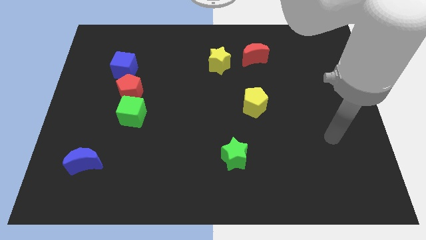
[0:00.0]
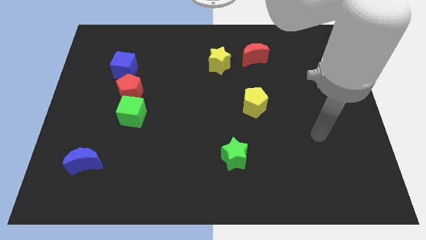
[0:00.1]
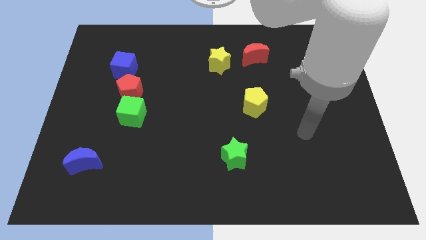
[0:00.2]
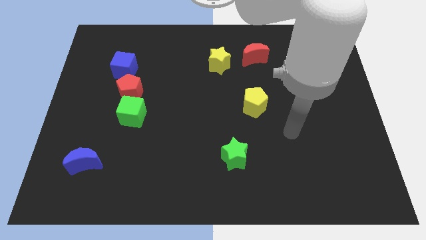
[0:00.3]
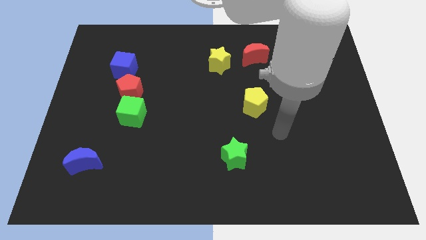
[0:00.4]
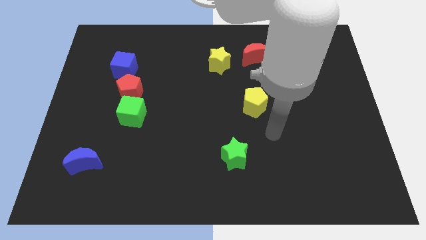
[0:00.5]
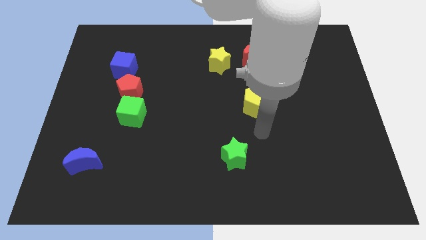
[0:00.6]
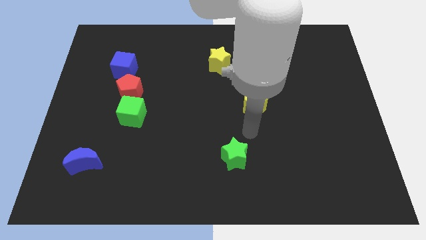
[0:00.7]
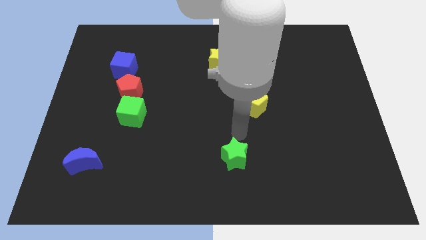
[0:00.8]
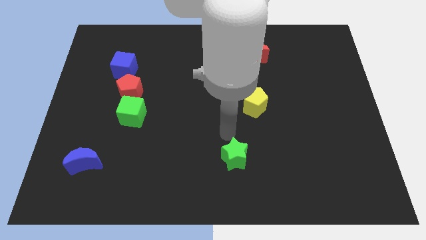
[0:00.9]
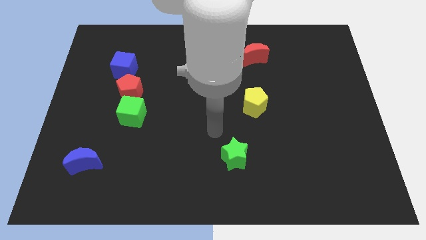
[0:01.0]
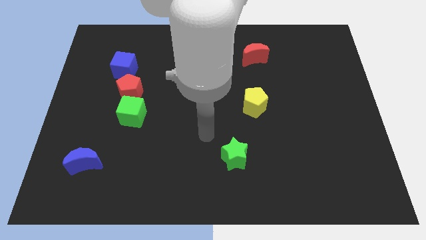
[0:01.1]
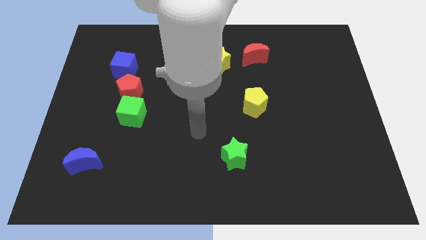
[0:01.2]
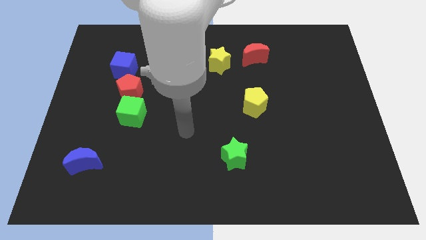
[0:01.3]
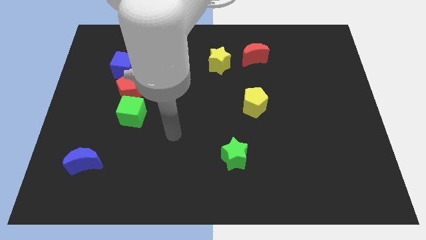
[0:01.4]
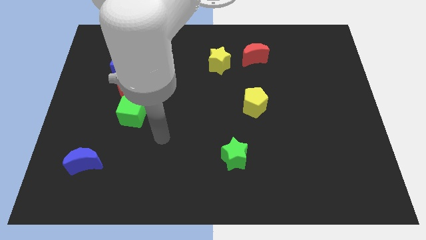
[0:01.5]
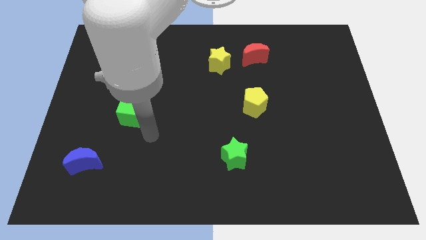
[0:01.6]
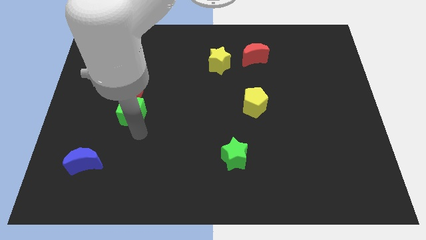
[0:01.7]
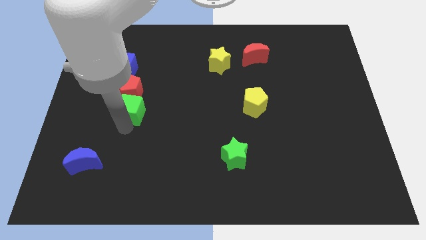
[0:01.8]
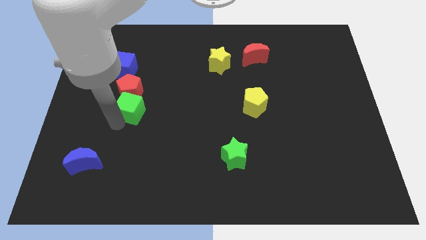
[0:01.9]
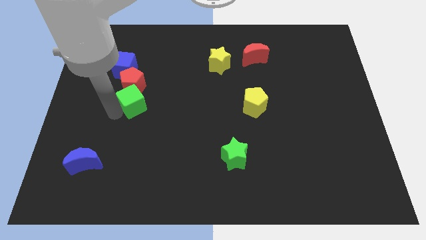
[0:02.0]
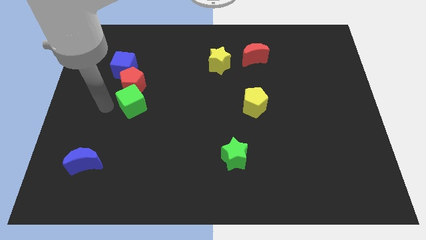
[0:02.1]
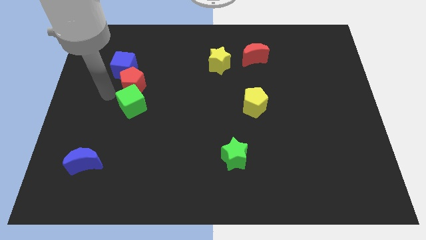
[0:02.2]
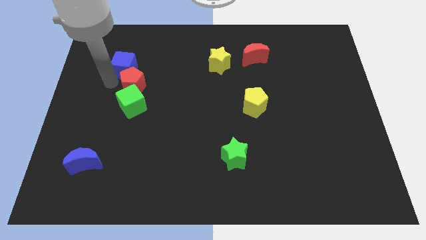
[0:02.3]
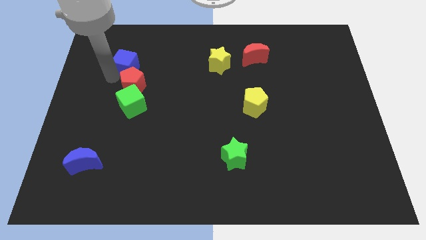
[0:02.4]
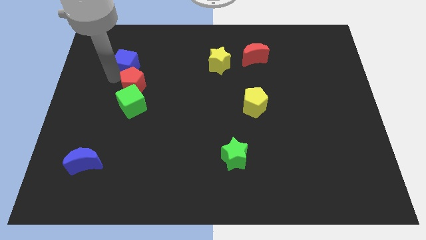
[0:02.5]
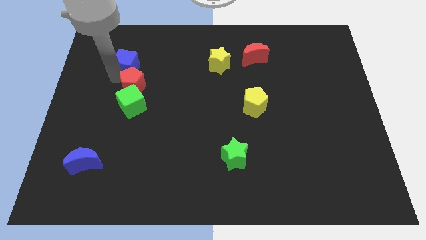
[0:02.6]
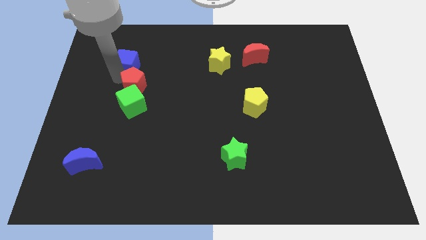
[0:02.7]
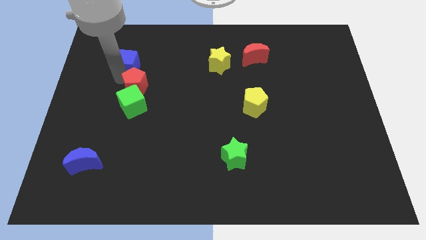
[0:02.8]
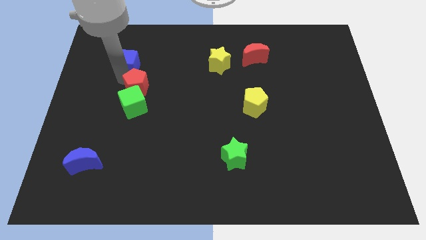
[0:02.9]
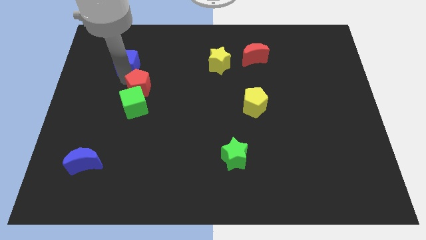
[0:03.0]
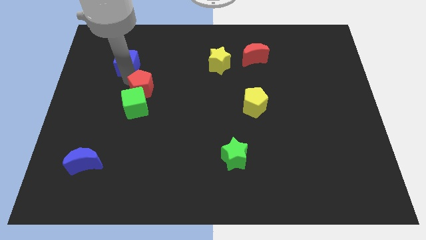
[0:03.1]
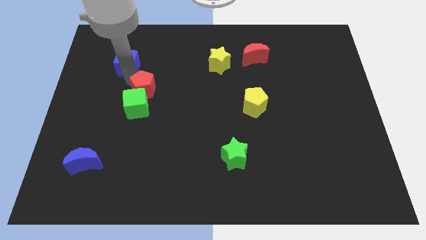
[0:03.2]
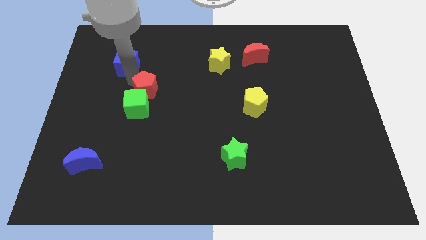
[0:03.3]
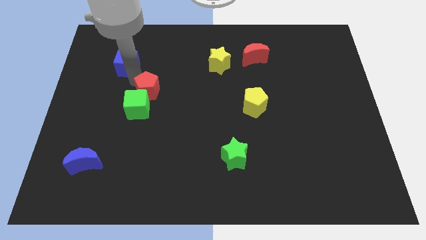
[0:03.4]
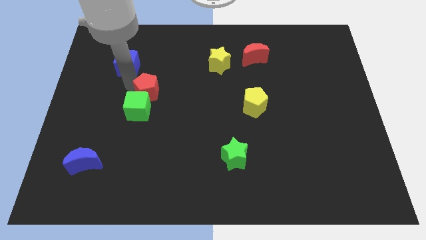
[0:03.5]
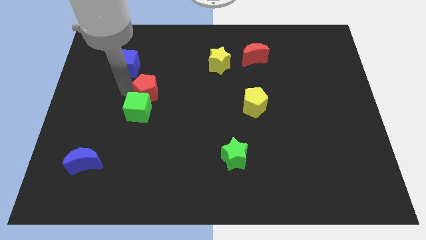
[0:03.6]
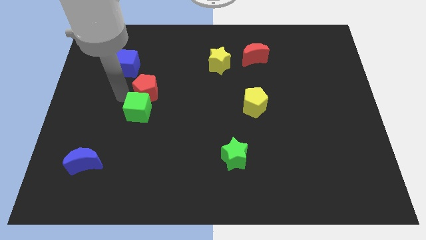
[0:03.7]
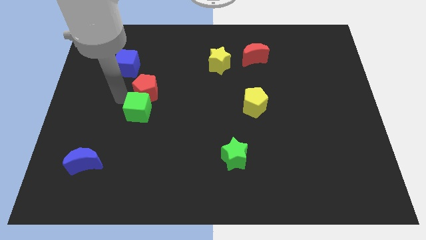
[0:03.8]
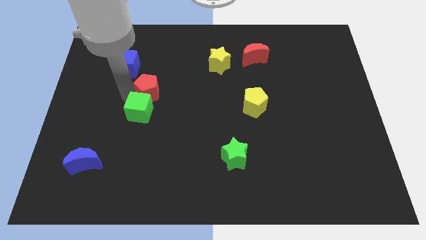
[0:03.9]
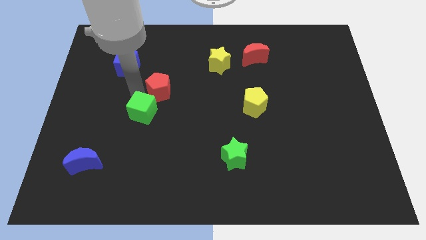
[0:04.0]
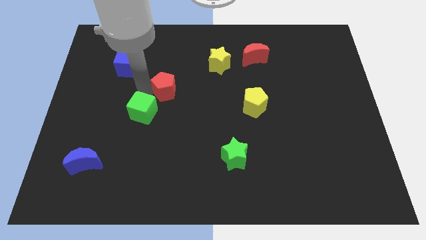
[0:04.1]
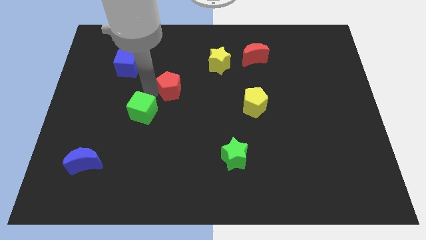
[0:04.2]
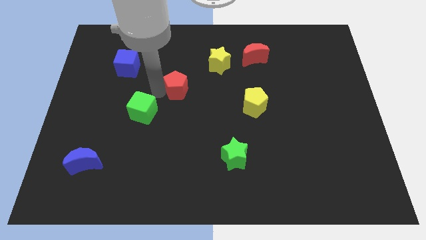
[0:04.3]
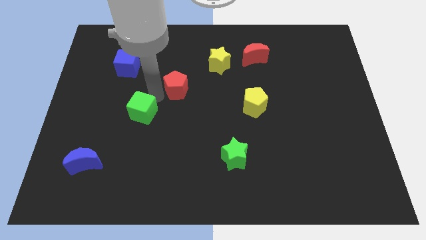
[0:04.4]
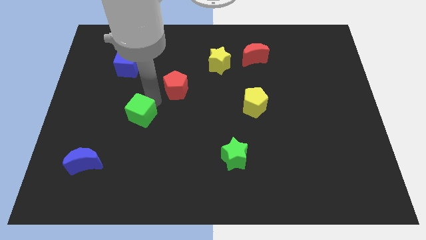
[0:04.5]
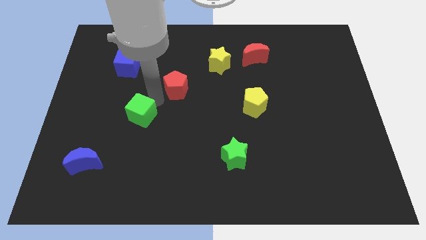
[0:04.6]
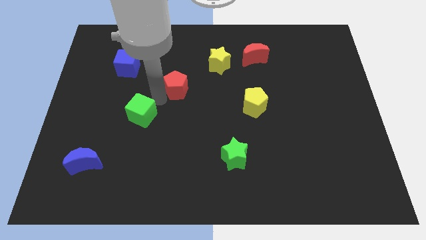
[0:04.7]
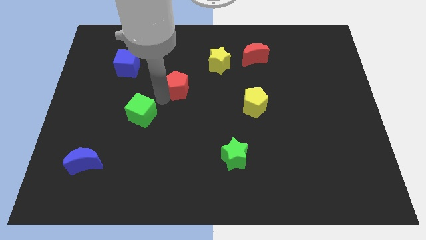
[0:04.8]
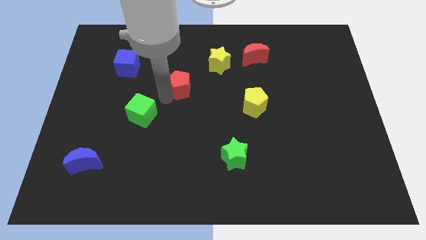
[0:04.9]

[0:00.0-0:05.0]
put the red pentagon to the bottom left of the yellow star

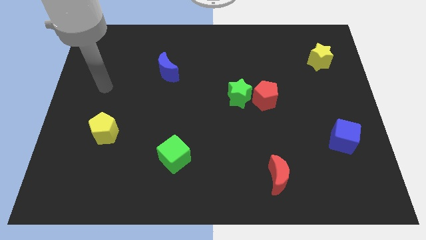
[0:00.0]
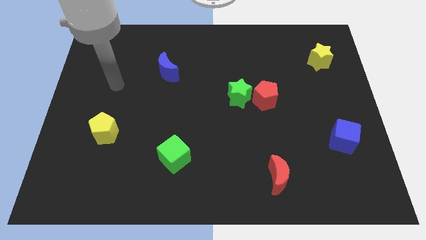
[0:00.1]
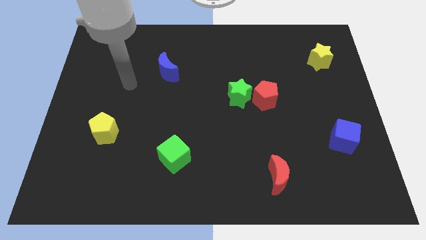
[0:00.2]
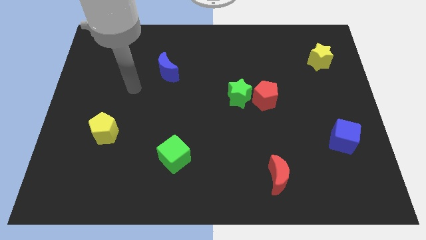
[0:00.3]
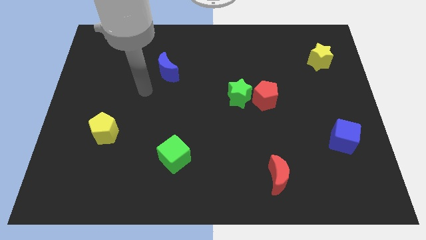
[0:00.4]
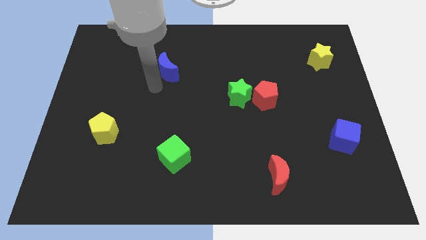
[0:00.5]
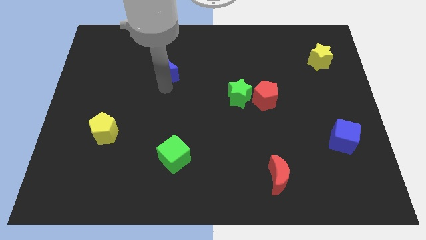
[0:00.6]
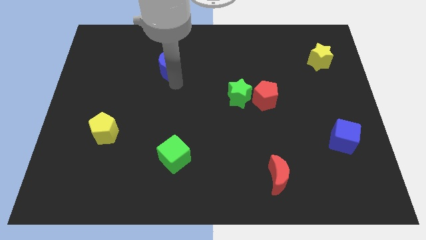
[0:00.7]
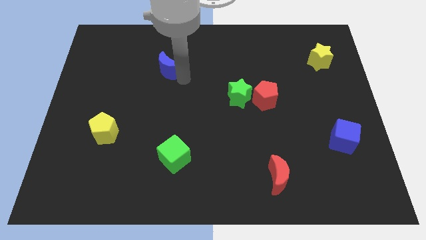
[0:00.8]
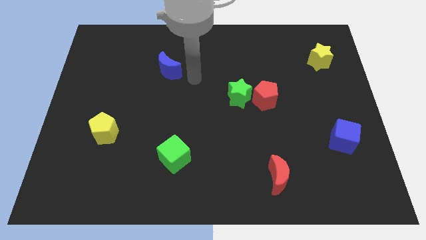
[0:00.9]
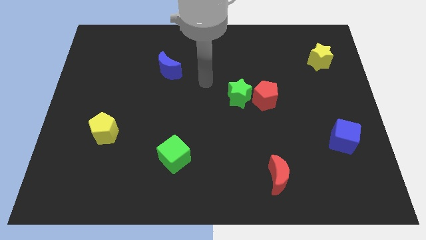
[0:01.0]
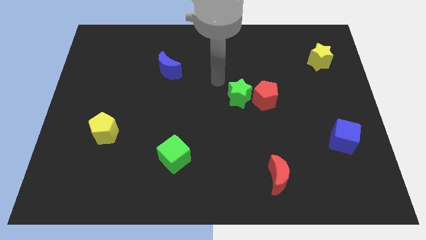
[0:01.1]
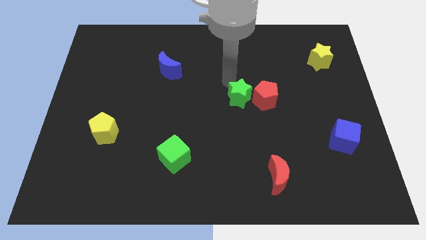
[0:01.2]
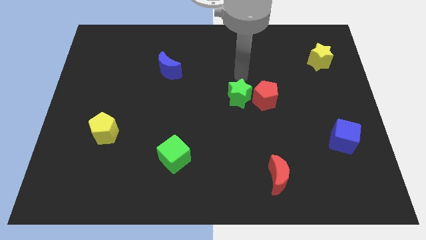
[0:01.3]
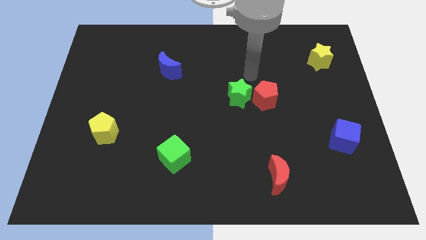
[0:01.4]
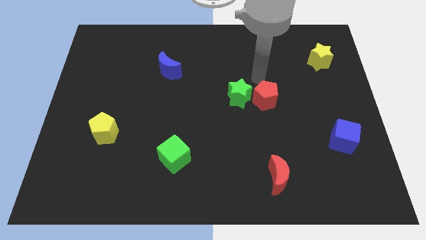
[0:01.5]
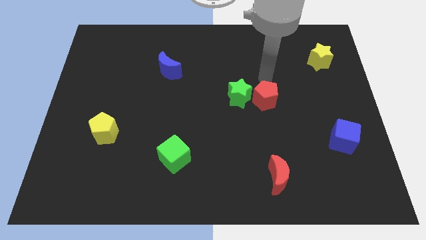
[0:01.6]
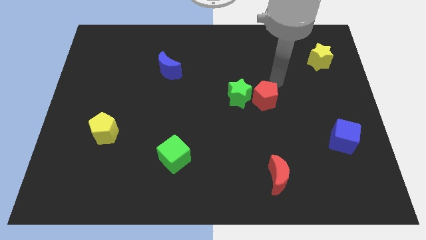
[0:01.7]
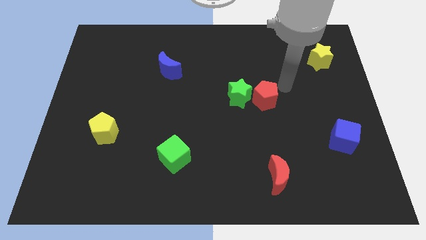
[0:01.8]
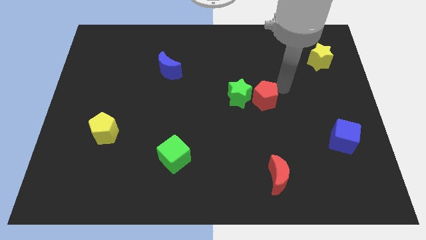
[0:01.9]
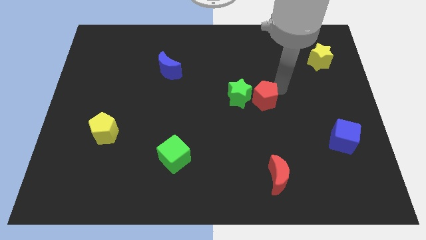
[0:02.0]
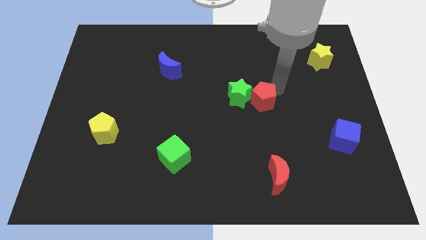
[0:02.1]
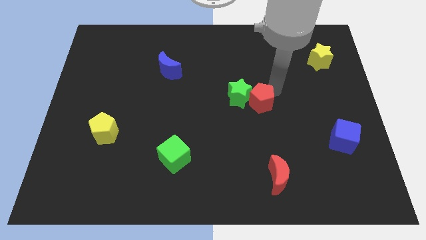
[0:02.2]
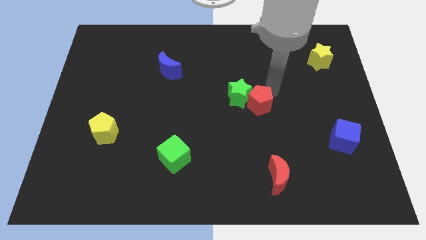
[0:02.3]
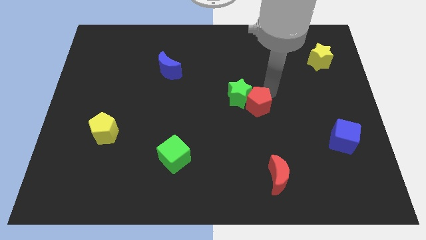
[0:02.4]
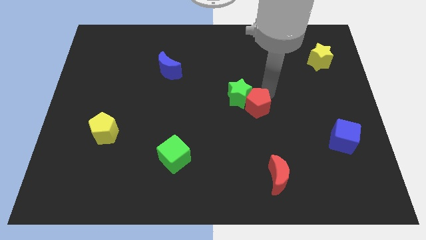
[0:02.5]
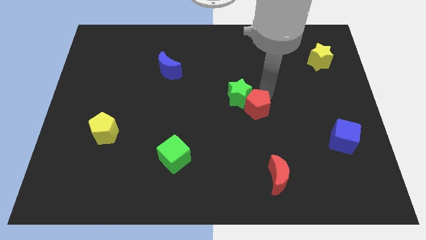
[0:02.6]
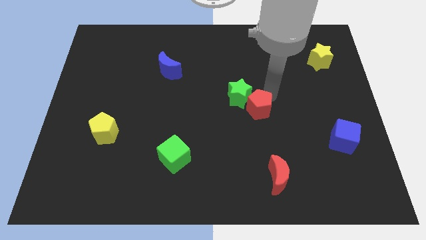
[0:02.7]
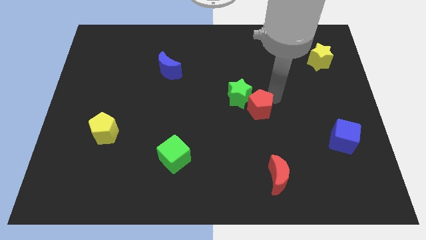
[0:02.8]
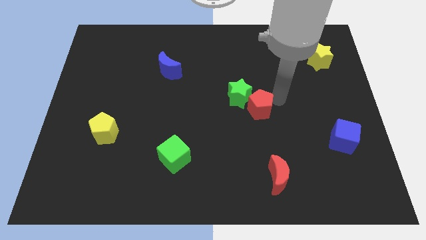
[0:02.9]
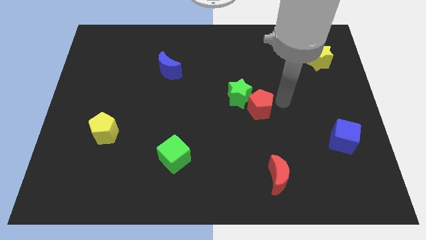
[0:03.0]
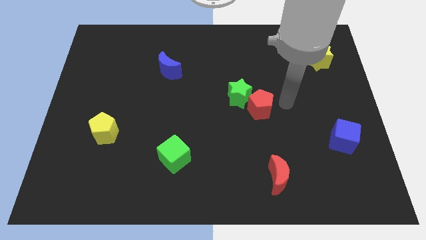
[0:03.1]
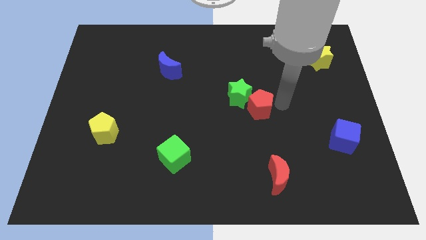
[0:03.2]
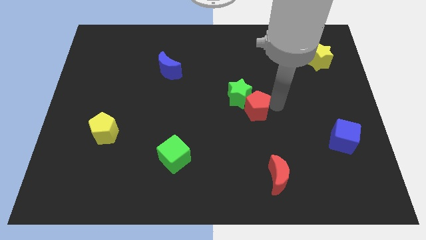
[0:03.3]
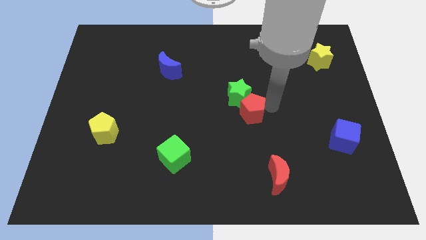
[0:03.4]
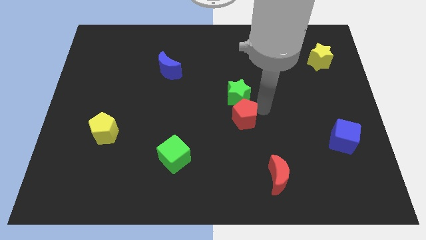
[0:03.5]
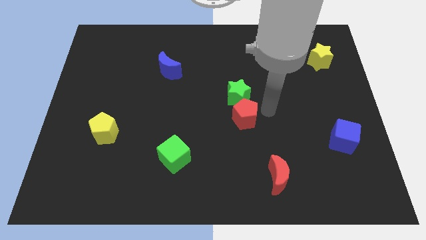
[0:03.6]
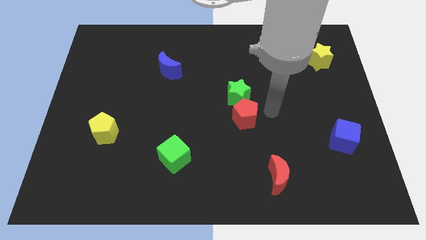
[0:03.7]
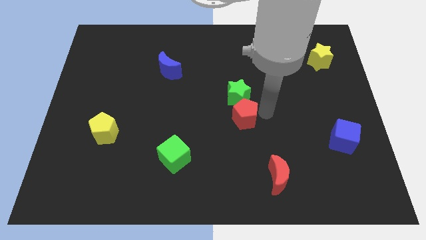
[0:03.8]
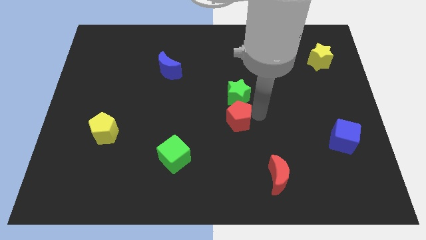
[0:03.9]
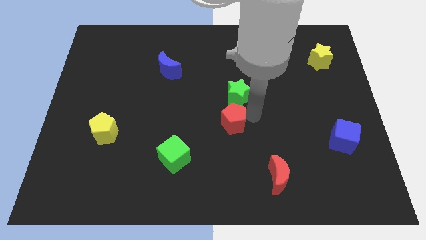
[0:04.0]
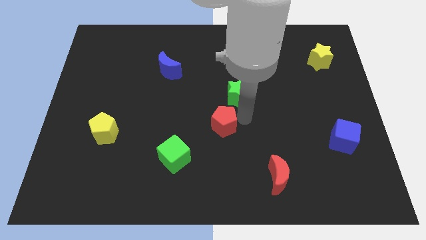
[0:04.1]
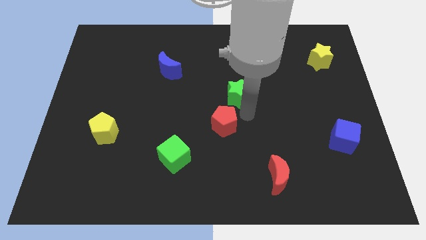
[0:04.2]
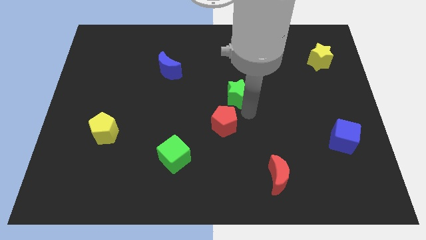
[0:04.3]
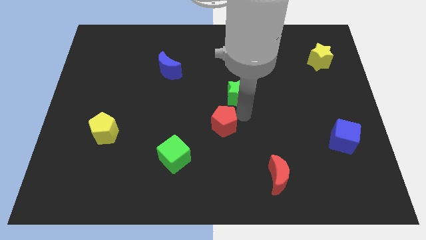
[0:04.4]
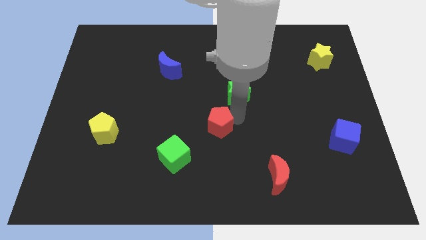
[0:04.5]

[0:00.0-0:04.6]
push the red pentagon to the top right side of the green cube
